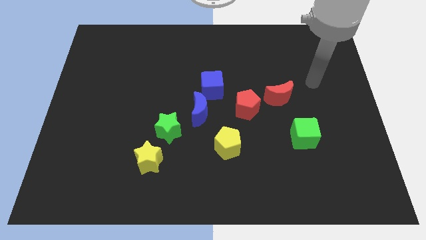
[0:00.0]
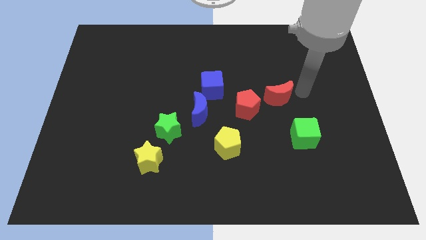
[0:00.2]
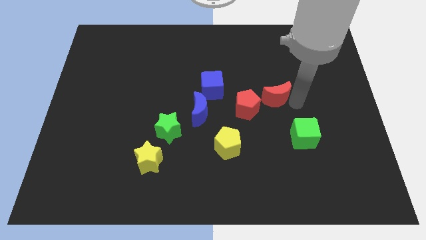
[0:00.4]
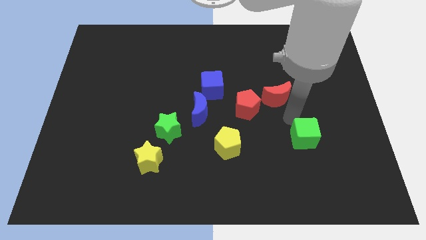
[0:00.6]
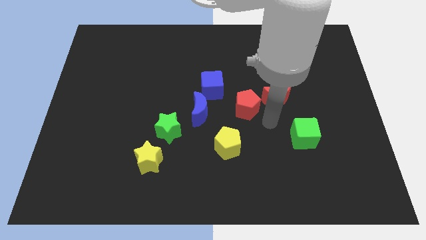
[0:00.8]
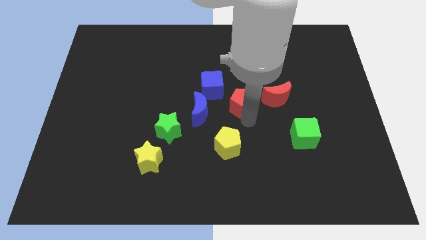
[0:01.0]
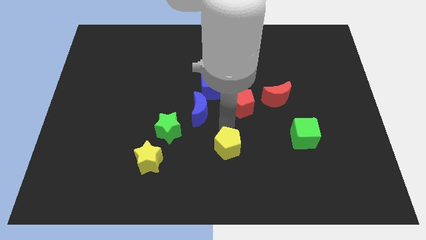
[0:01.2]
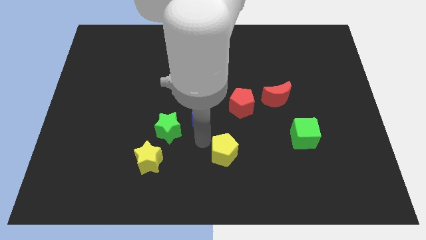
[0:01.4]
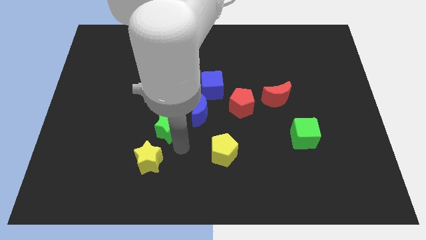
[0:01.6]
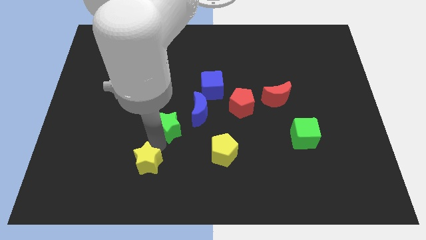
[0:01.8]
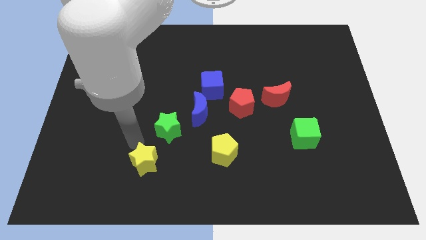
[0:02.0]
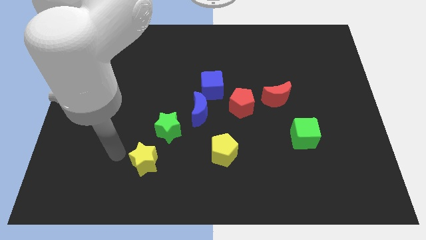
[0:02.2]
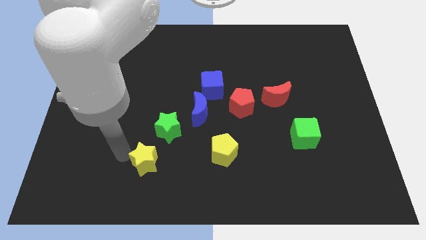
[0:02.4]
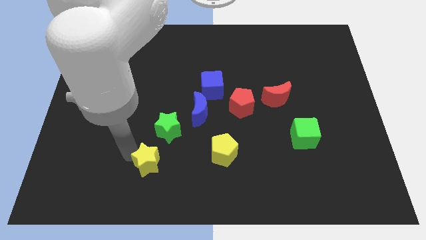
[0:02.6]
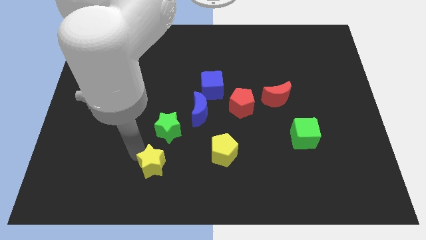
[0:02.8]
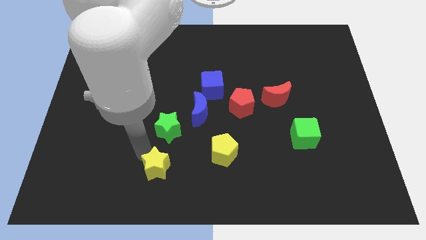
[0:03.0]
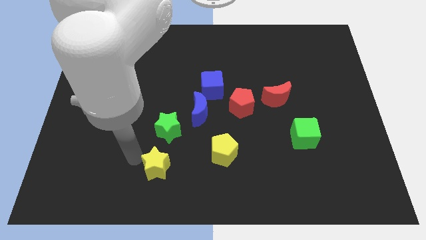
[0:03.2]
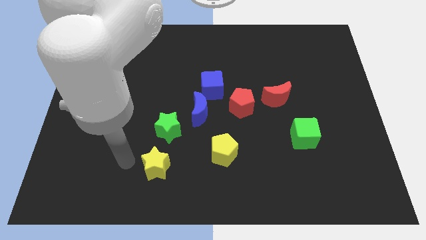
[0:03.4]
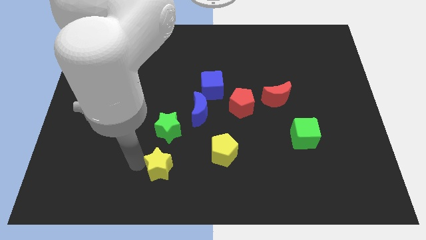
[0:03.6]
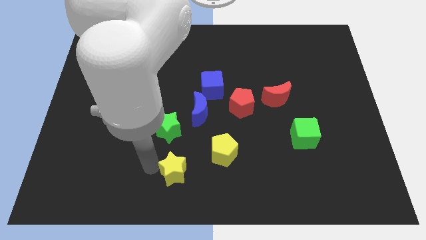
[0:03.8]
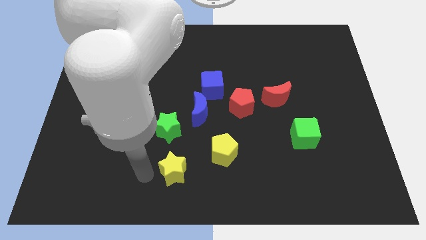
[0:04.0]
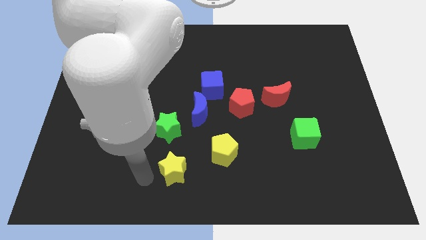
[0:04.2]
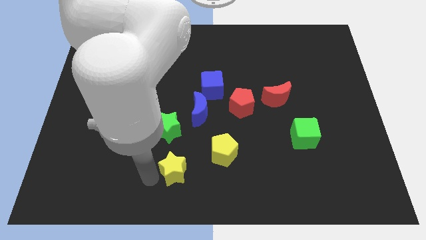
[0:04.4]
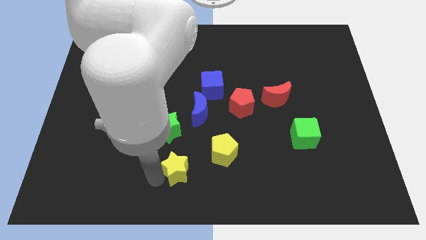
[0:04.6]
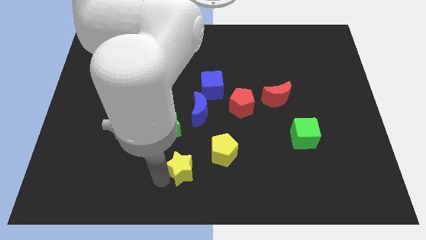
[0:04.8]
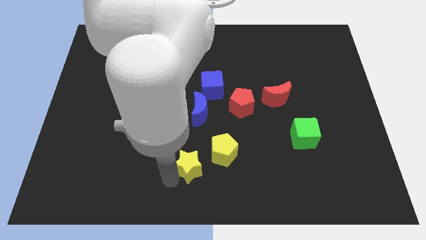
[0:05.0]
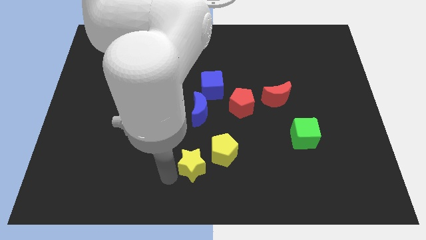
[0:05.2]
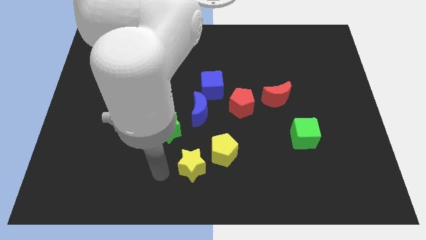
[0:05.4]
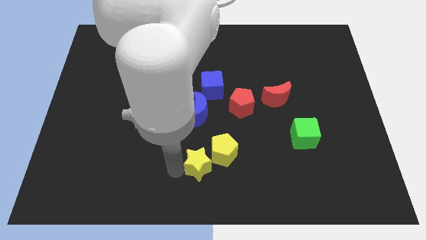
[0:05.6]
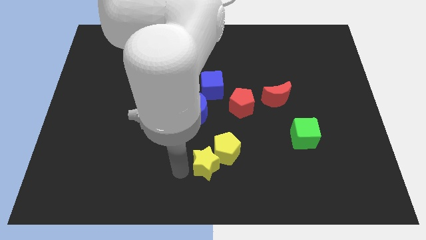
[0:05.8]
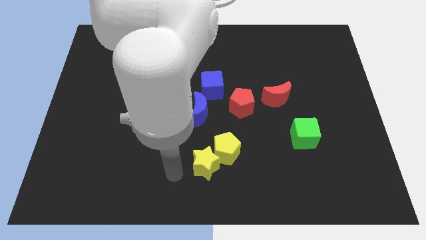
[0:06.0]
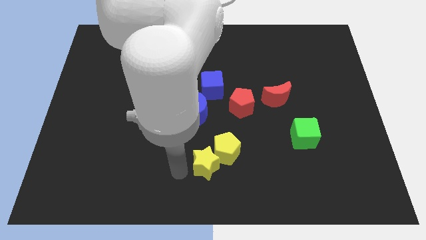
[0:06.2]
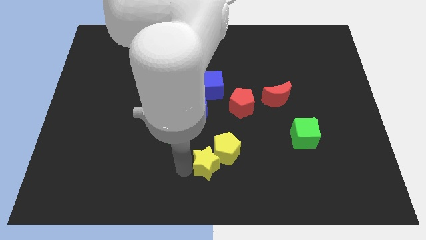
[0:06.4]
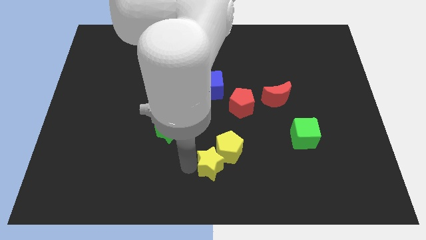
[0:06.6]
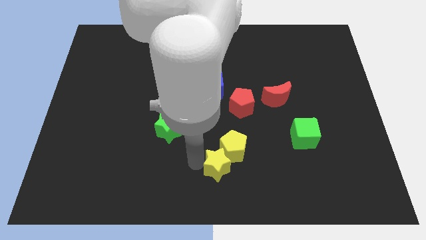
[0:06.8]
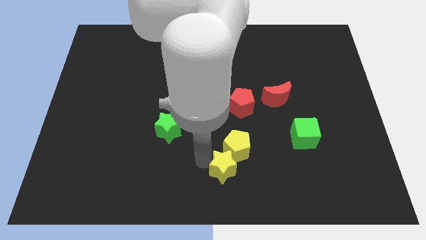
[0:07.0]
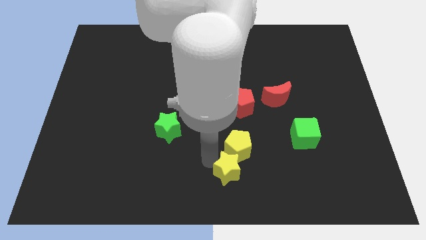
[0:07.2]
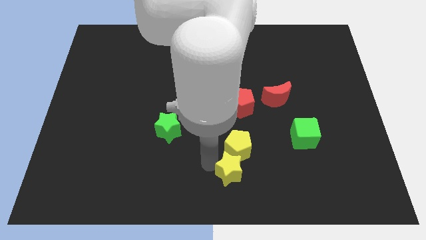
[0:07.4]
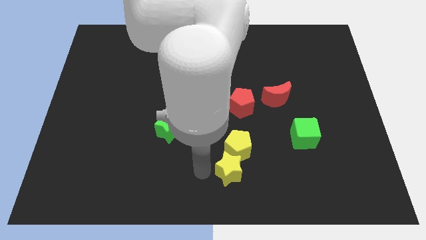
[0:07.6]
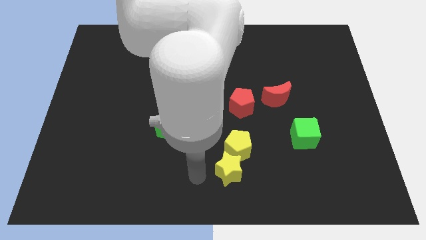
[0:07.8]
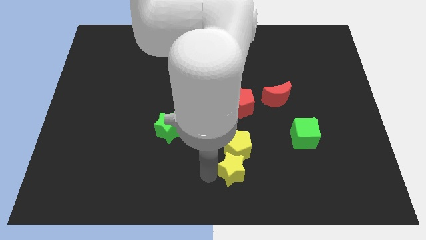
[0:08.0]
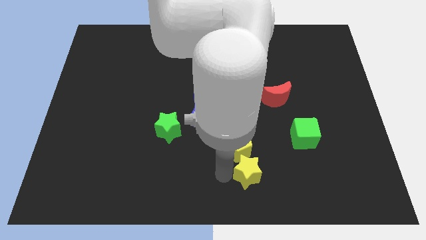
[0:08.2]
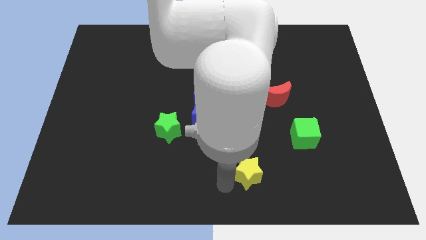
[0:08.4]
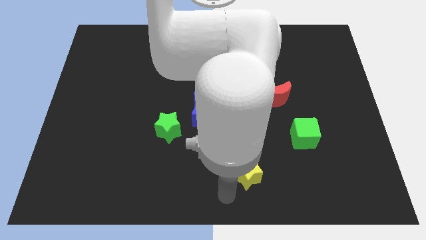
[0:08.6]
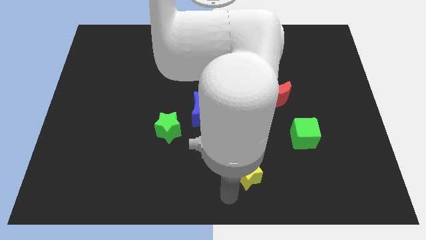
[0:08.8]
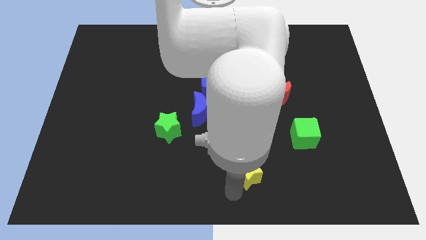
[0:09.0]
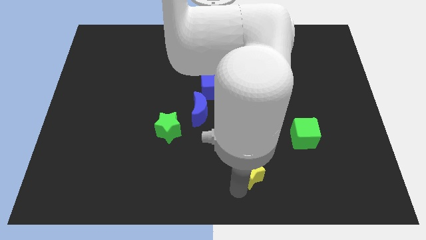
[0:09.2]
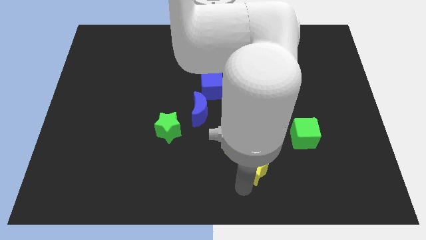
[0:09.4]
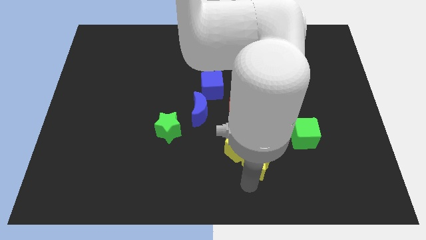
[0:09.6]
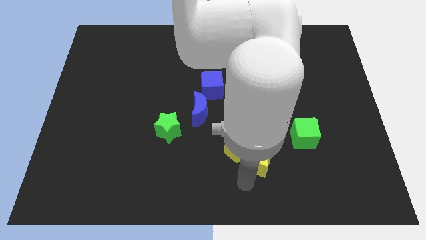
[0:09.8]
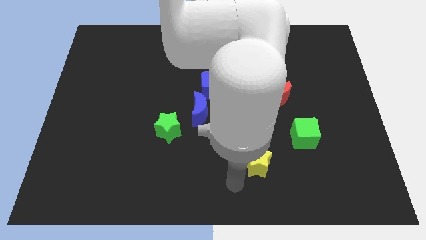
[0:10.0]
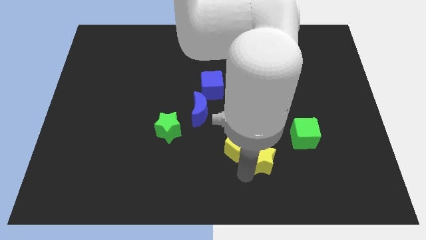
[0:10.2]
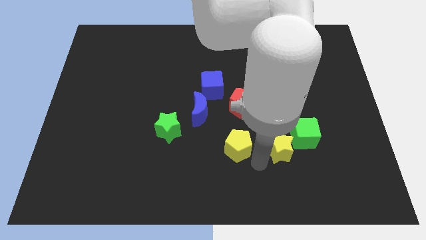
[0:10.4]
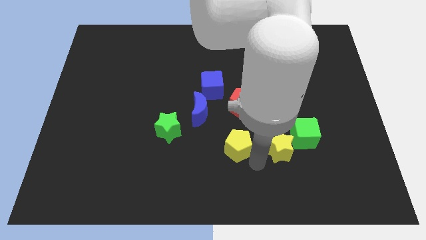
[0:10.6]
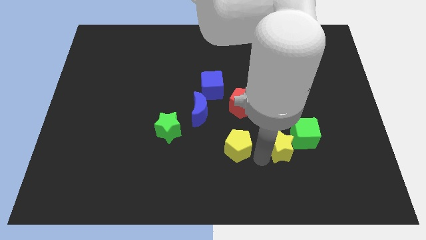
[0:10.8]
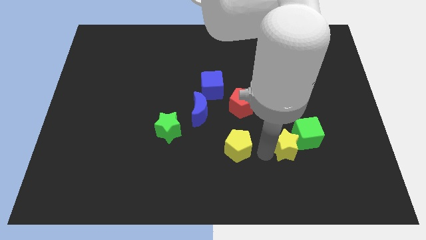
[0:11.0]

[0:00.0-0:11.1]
slide the yellow star close to the green cube

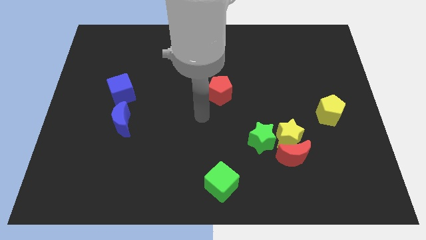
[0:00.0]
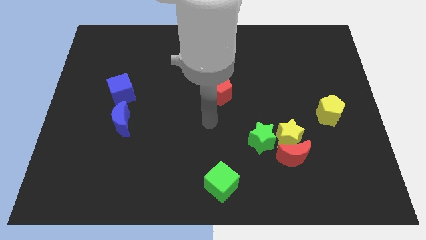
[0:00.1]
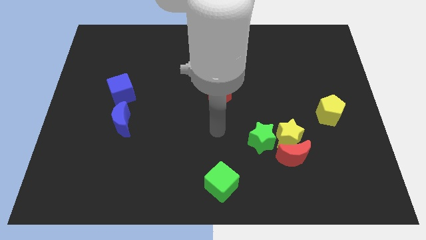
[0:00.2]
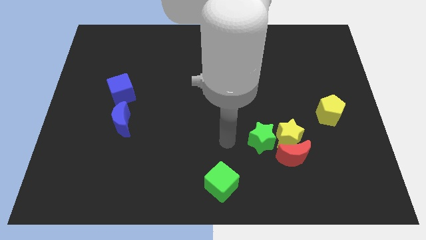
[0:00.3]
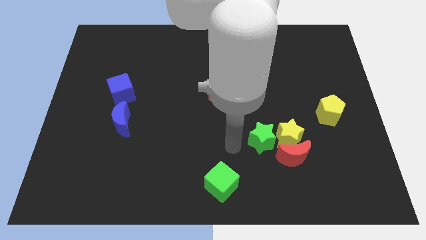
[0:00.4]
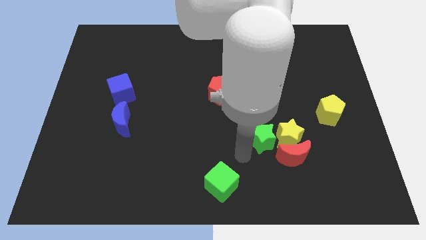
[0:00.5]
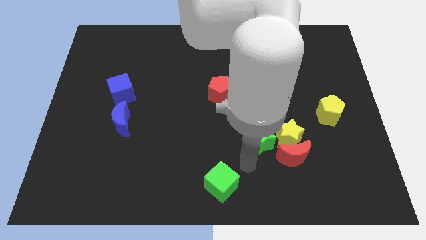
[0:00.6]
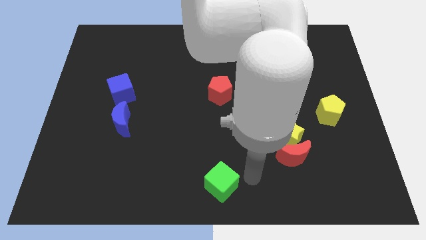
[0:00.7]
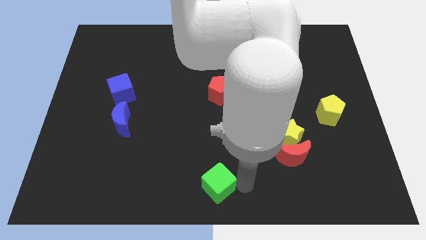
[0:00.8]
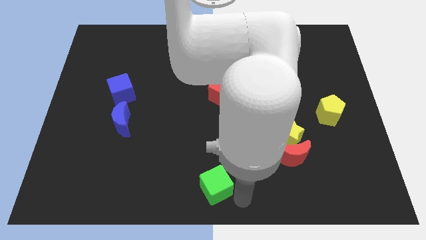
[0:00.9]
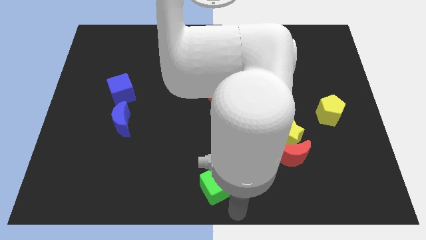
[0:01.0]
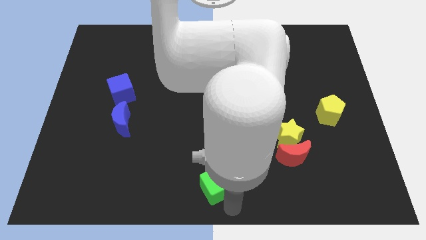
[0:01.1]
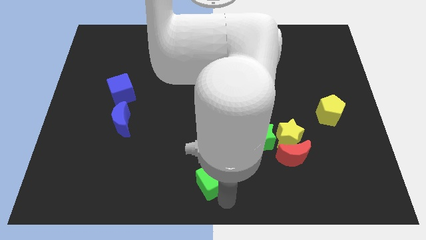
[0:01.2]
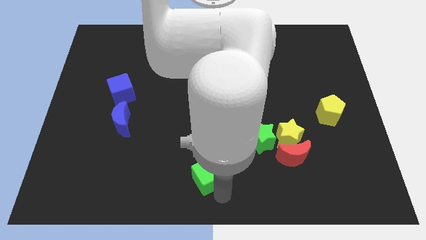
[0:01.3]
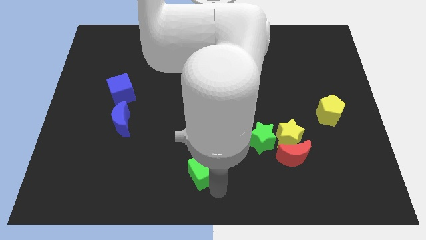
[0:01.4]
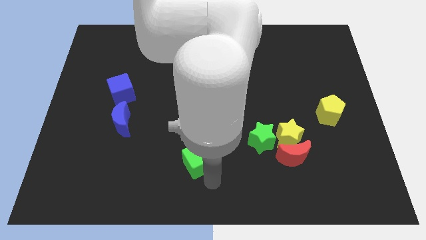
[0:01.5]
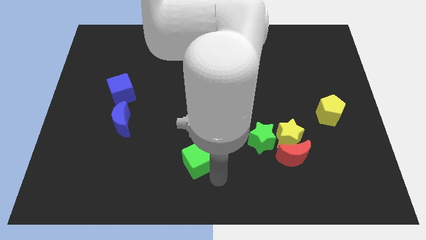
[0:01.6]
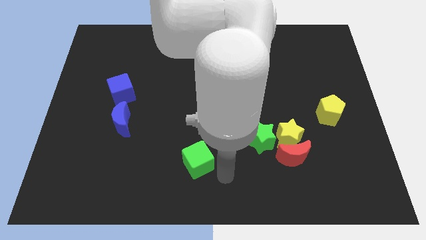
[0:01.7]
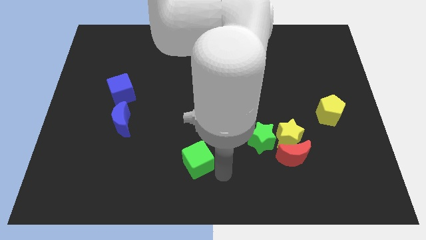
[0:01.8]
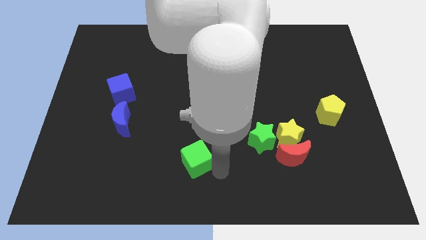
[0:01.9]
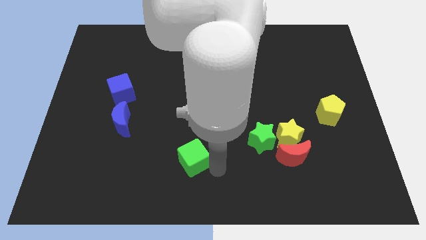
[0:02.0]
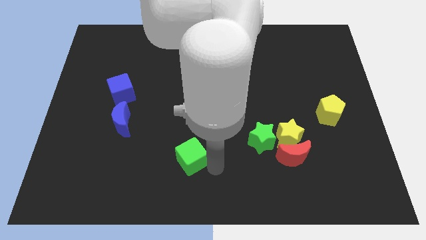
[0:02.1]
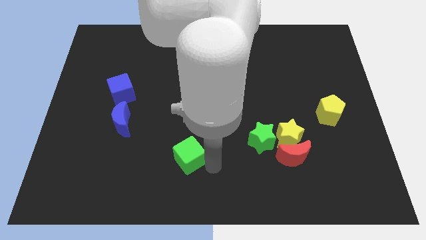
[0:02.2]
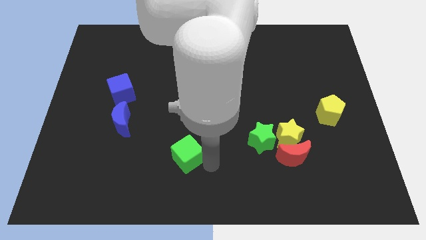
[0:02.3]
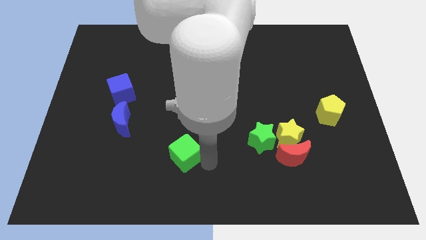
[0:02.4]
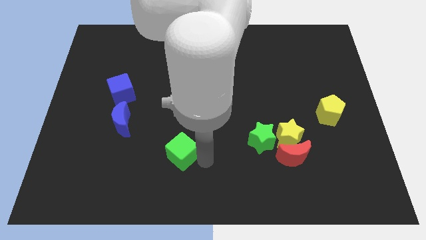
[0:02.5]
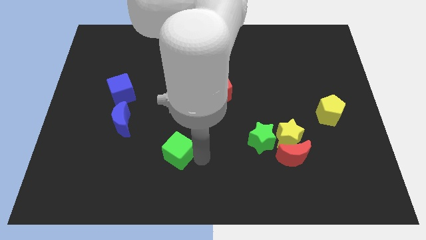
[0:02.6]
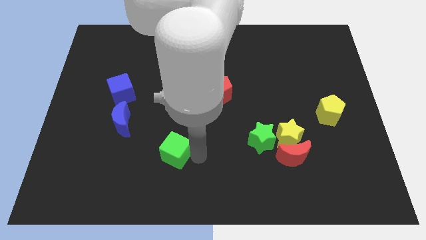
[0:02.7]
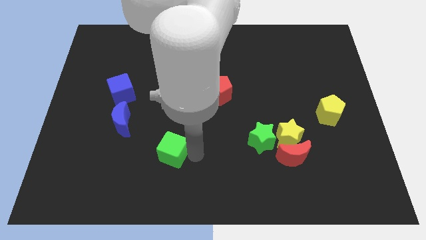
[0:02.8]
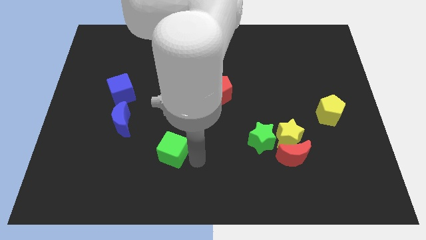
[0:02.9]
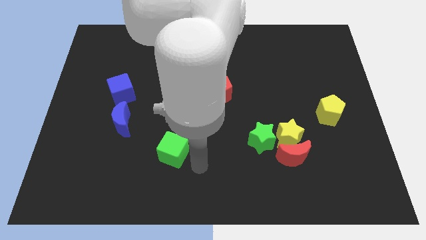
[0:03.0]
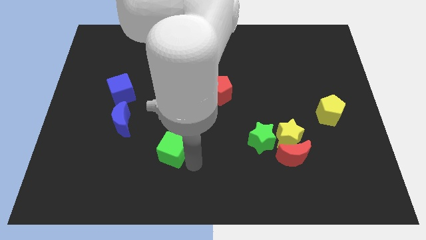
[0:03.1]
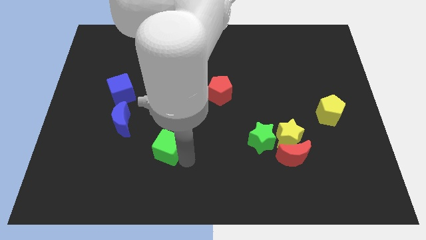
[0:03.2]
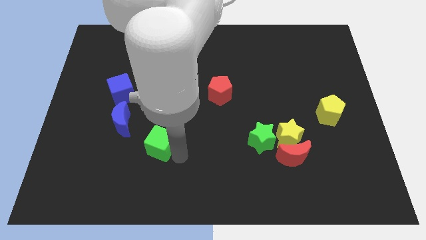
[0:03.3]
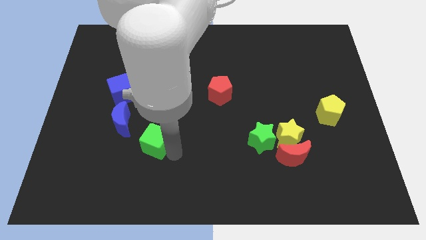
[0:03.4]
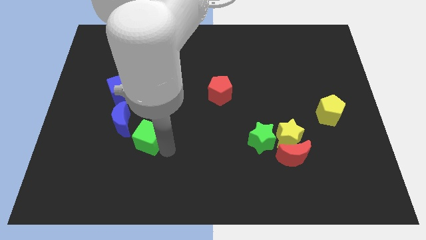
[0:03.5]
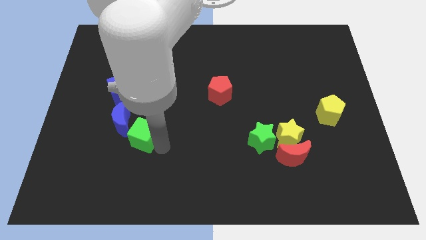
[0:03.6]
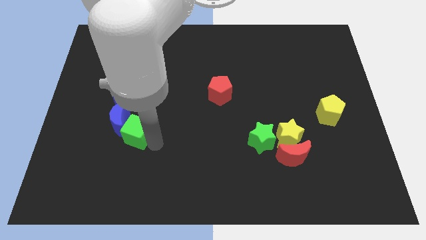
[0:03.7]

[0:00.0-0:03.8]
put the green cube to the blue moon
